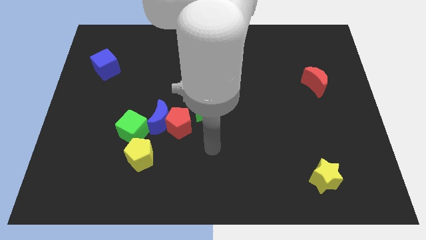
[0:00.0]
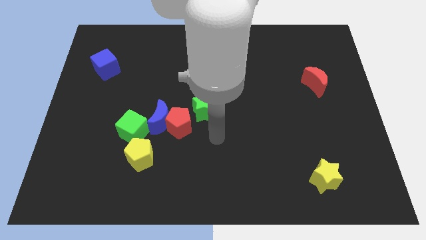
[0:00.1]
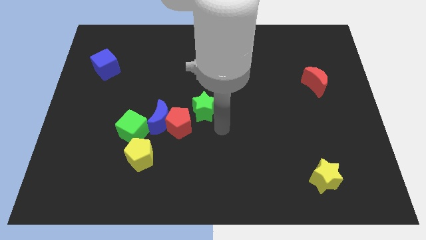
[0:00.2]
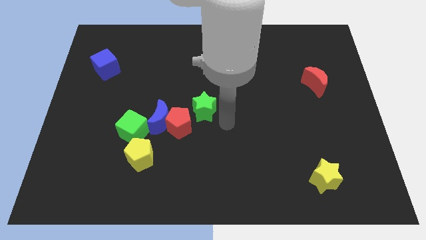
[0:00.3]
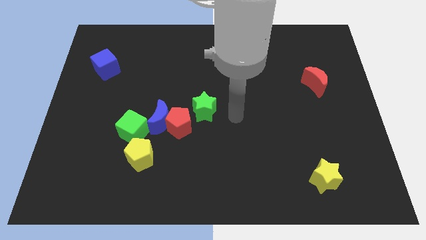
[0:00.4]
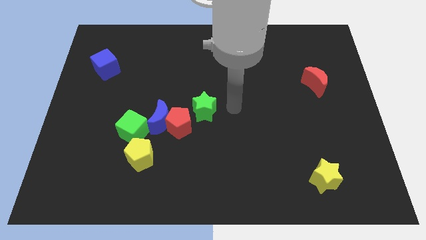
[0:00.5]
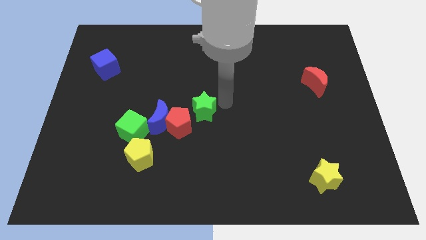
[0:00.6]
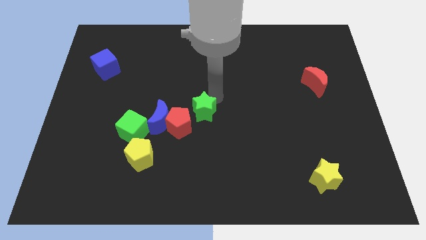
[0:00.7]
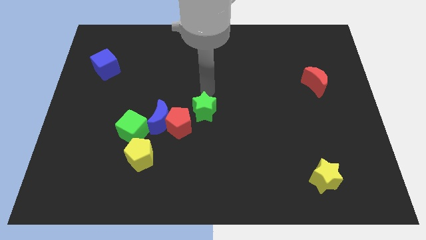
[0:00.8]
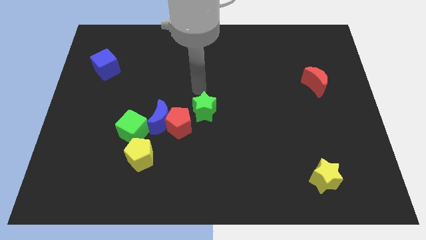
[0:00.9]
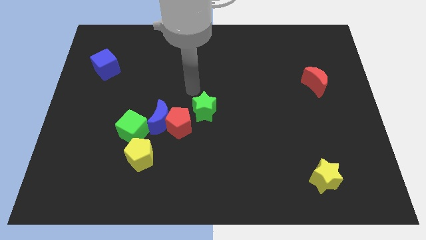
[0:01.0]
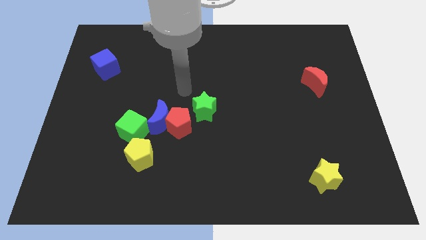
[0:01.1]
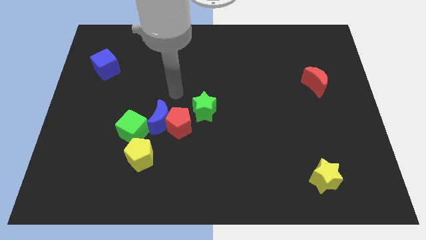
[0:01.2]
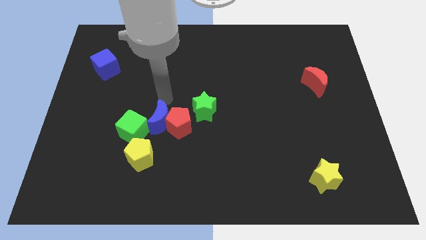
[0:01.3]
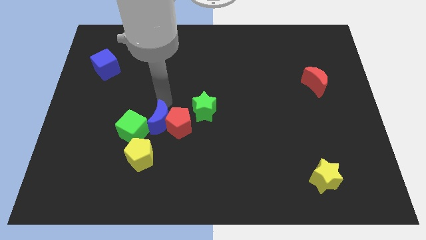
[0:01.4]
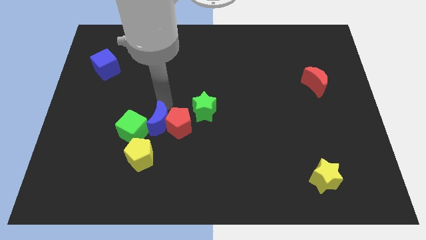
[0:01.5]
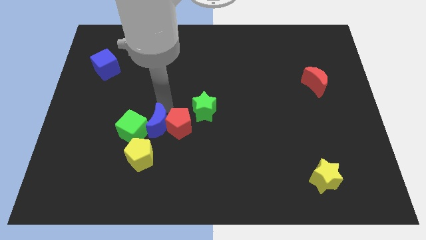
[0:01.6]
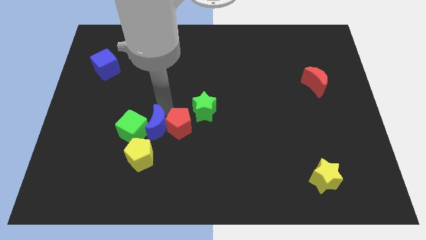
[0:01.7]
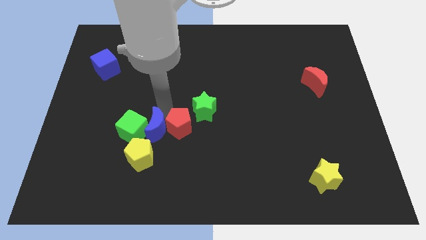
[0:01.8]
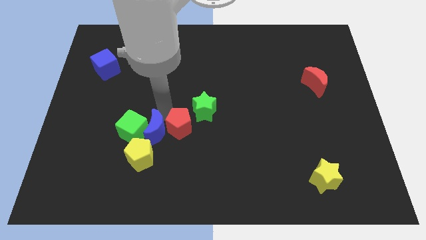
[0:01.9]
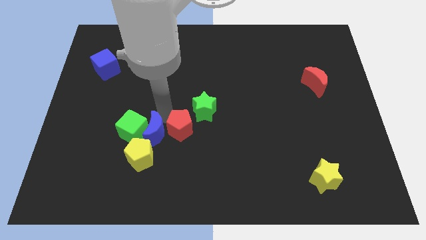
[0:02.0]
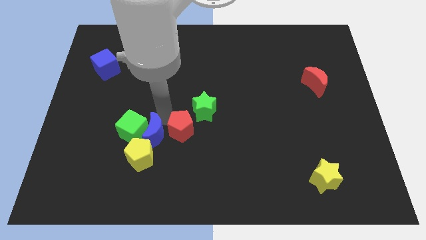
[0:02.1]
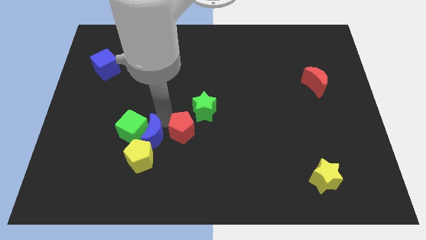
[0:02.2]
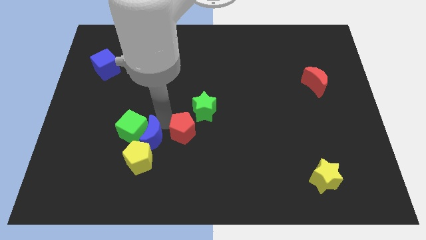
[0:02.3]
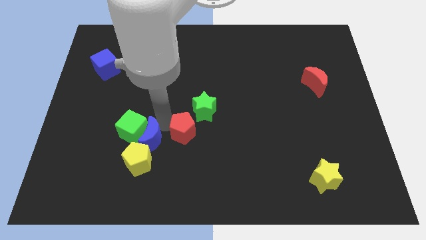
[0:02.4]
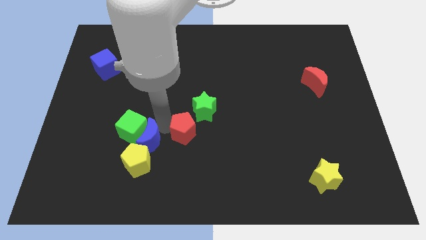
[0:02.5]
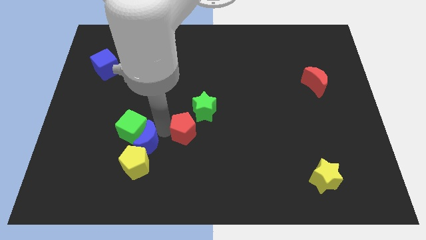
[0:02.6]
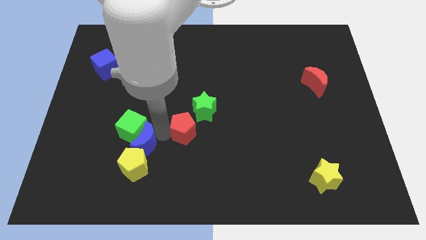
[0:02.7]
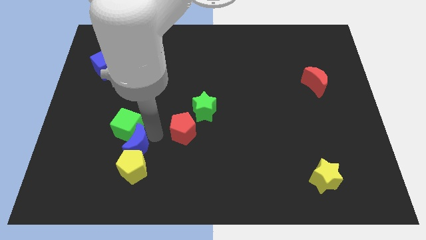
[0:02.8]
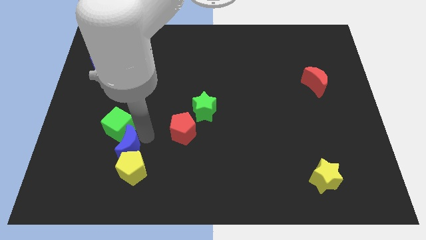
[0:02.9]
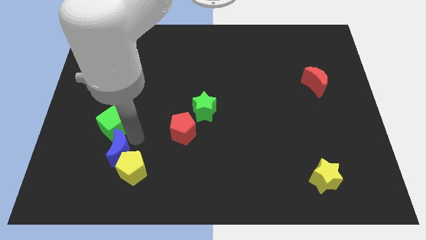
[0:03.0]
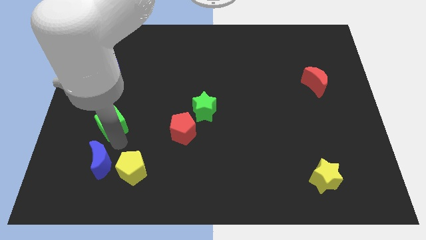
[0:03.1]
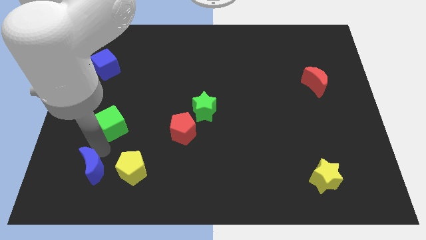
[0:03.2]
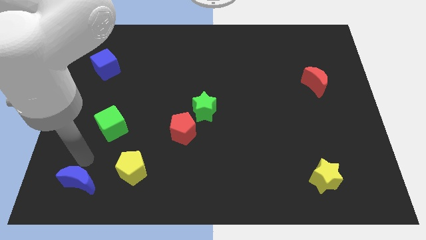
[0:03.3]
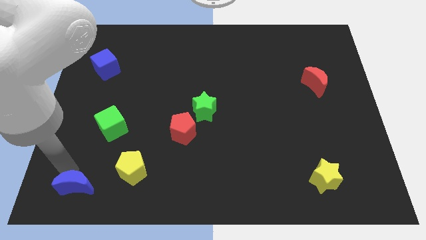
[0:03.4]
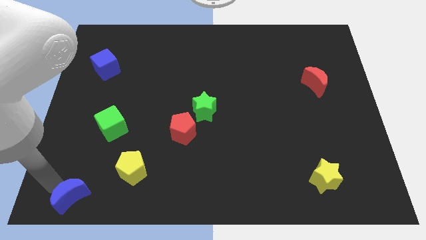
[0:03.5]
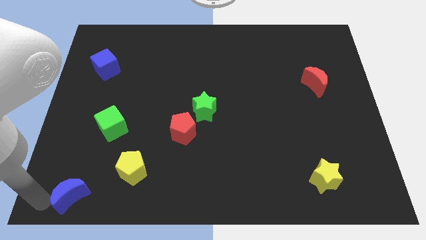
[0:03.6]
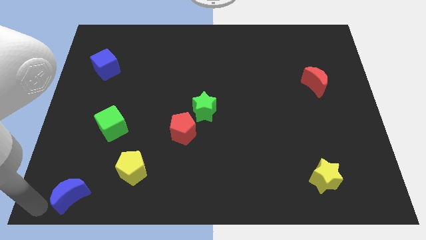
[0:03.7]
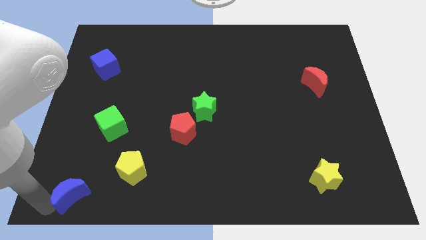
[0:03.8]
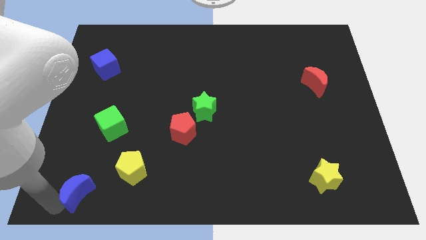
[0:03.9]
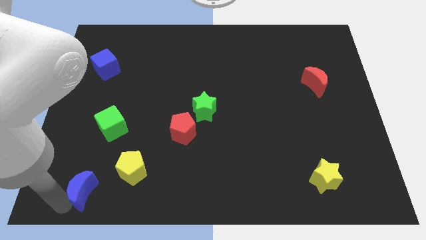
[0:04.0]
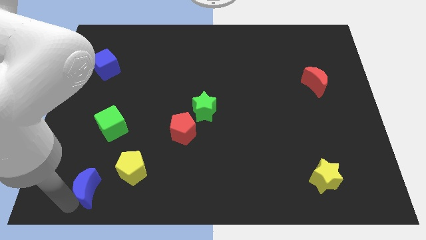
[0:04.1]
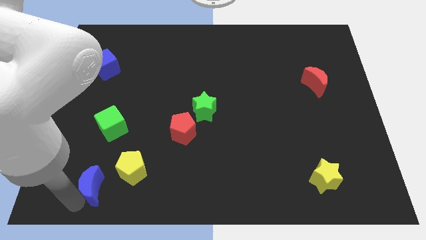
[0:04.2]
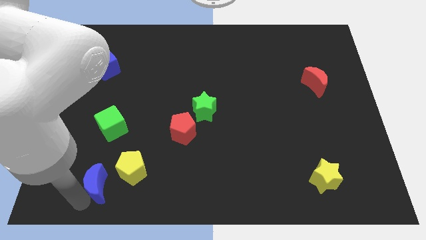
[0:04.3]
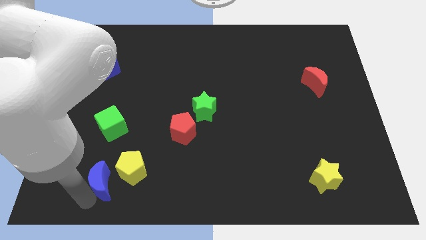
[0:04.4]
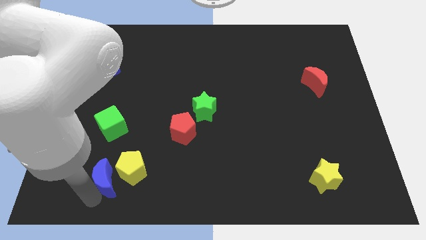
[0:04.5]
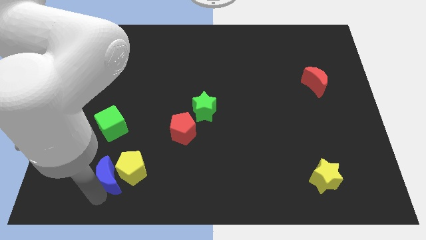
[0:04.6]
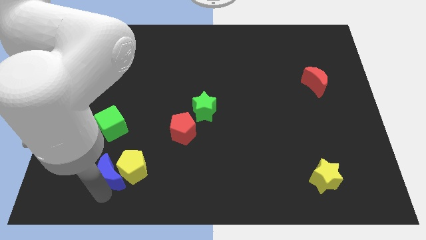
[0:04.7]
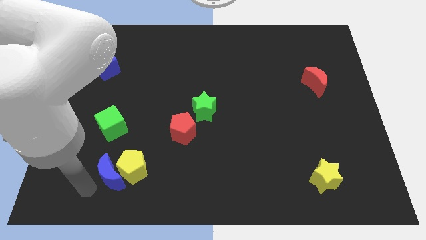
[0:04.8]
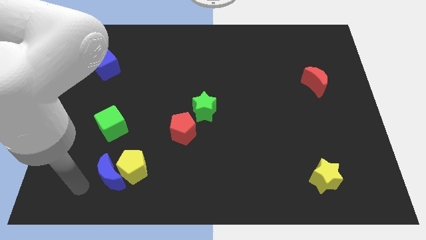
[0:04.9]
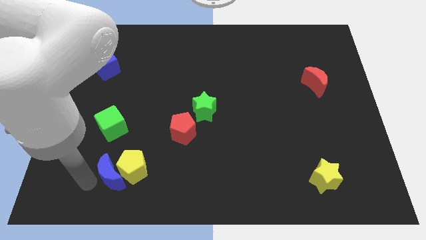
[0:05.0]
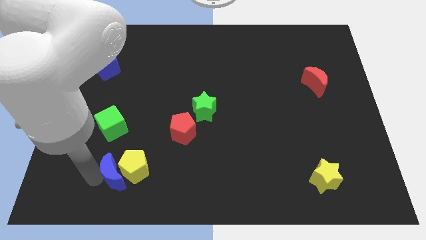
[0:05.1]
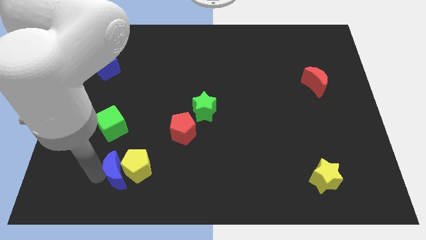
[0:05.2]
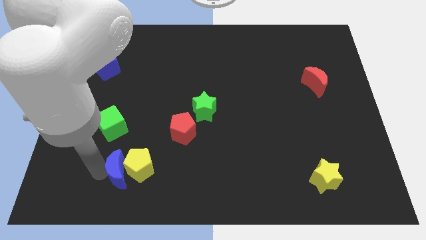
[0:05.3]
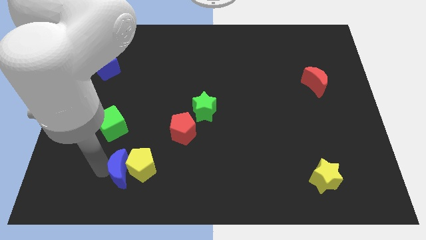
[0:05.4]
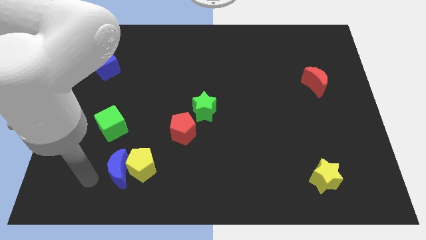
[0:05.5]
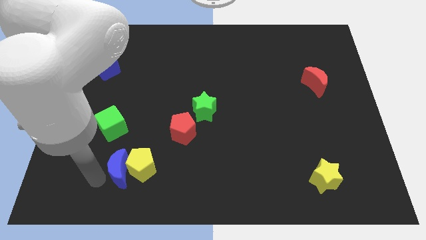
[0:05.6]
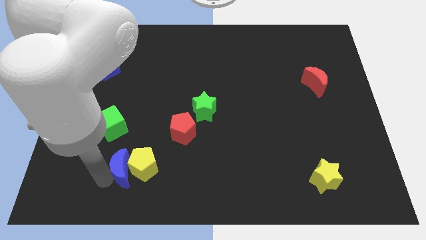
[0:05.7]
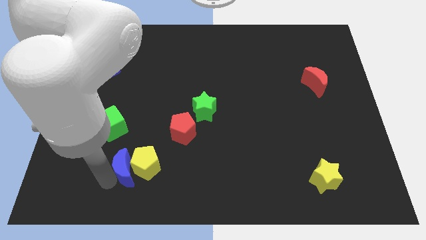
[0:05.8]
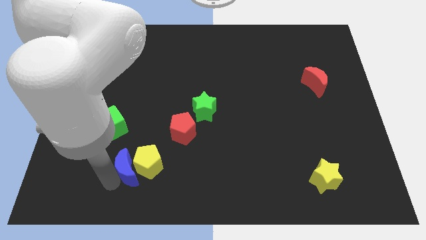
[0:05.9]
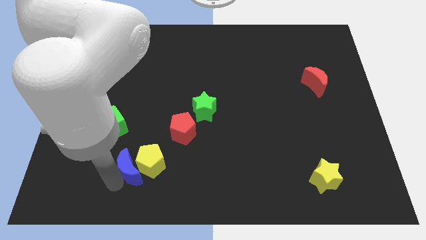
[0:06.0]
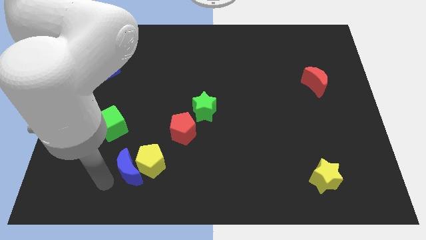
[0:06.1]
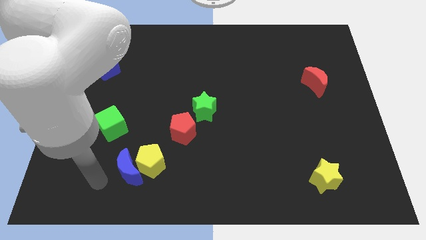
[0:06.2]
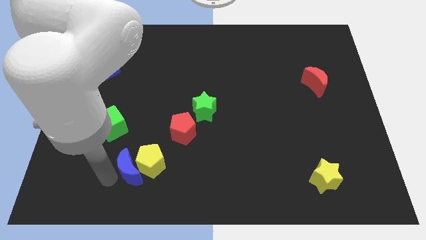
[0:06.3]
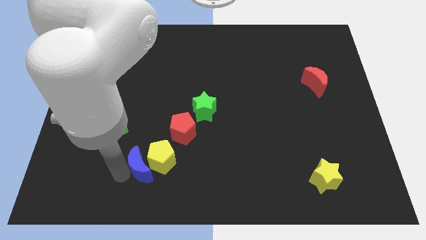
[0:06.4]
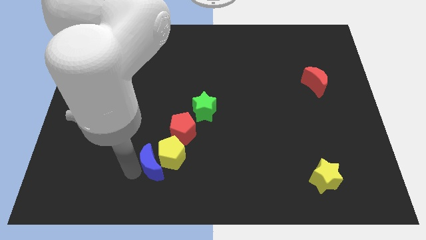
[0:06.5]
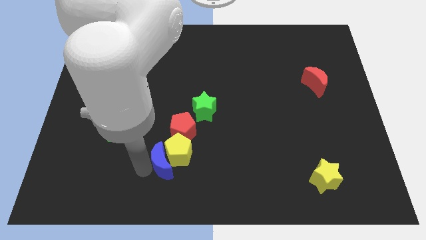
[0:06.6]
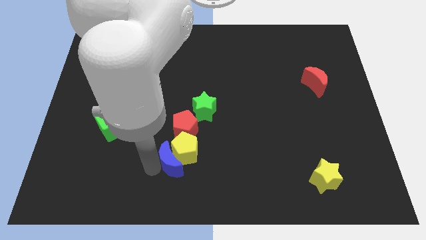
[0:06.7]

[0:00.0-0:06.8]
slightly move the blue moon downwards and then right

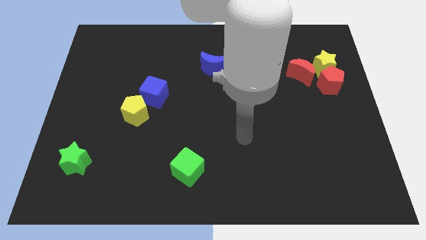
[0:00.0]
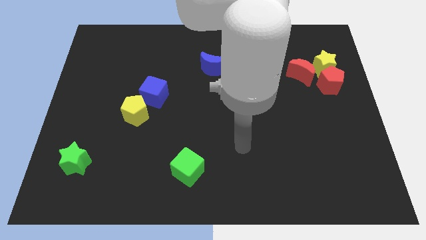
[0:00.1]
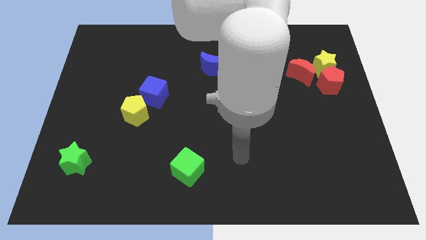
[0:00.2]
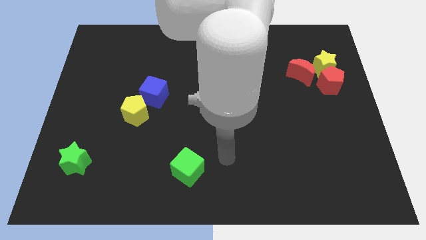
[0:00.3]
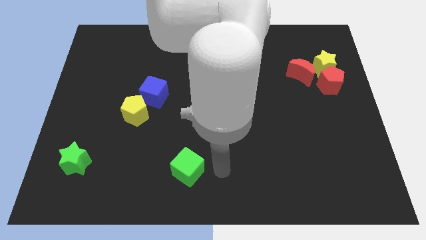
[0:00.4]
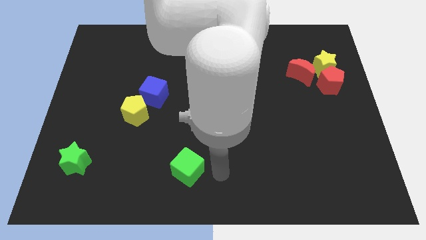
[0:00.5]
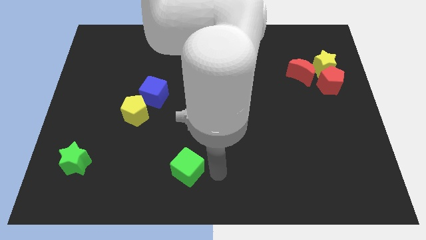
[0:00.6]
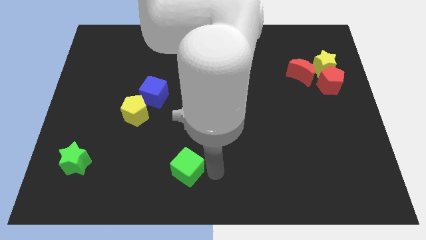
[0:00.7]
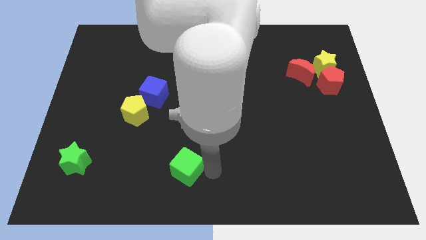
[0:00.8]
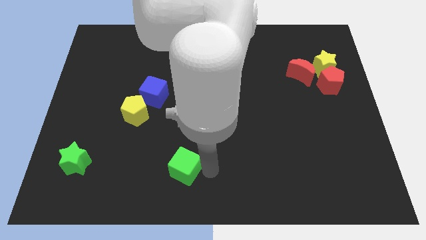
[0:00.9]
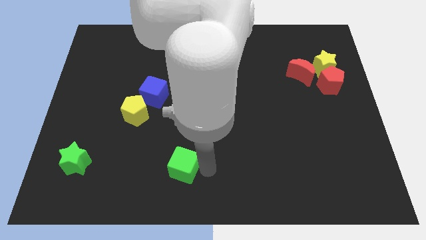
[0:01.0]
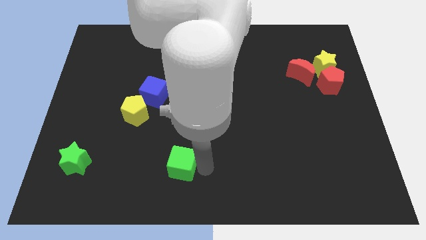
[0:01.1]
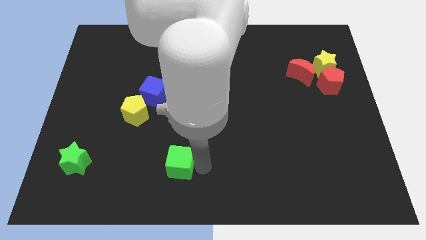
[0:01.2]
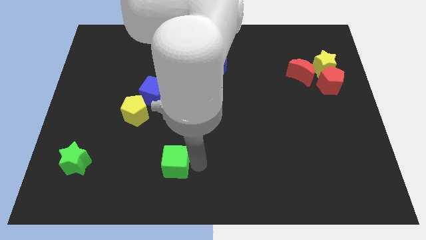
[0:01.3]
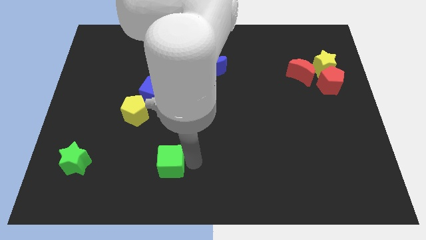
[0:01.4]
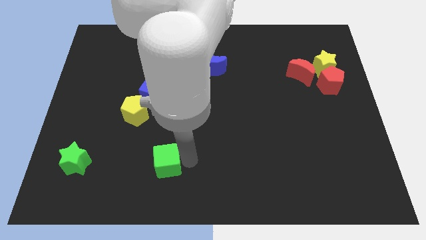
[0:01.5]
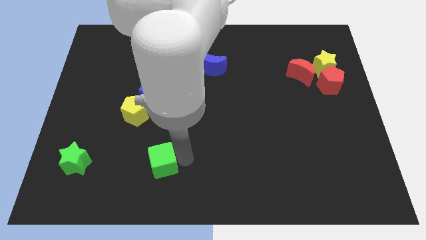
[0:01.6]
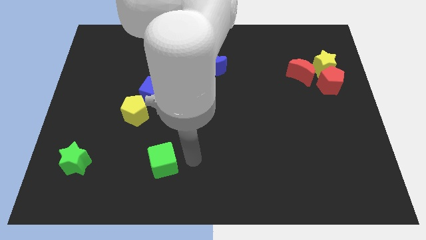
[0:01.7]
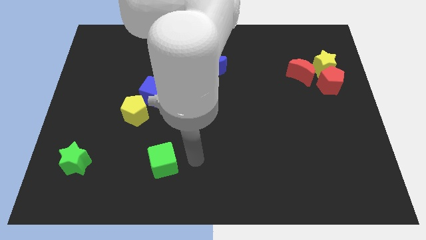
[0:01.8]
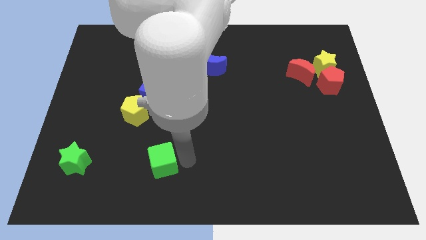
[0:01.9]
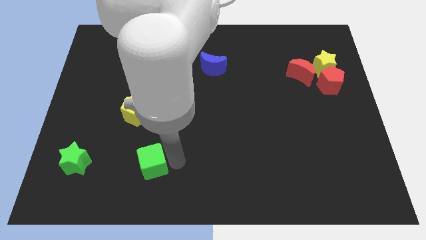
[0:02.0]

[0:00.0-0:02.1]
slightly slide the green cube to the left
